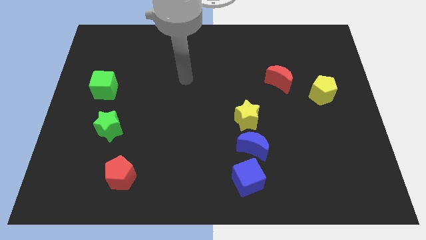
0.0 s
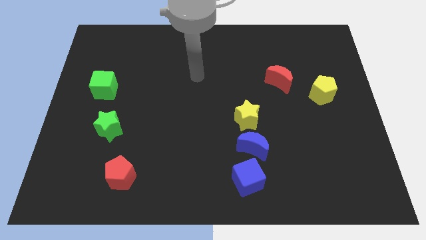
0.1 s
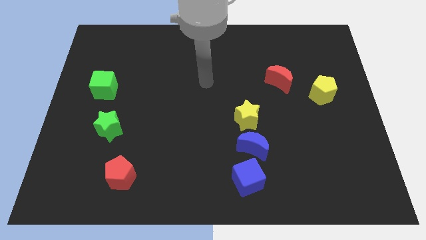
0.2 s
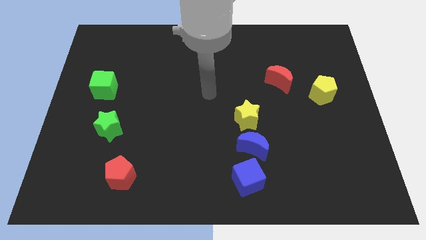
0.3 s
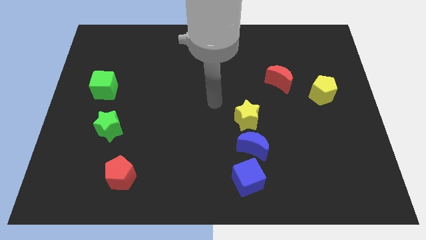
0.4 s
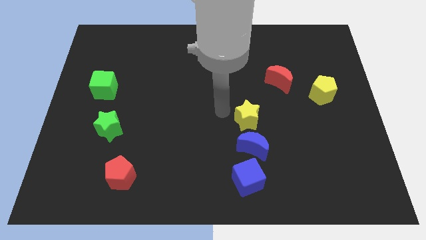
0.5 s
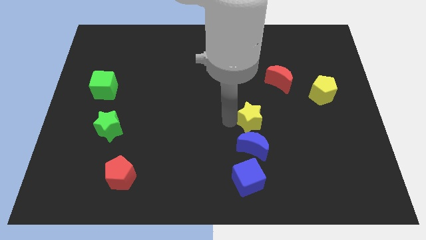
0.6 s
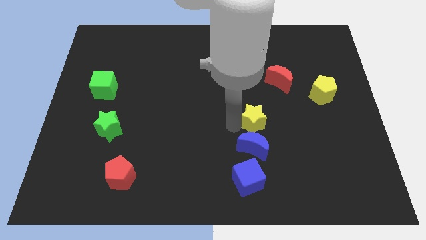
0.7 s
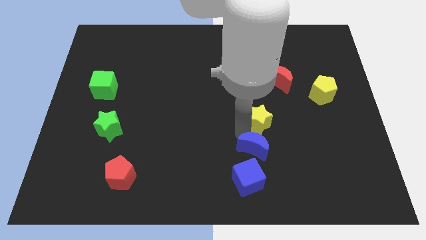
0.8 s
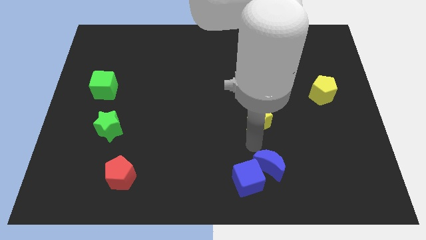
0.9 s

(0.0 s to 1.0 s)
pull the yellow star apart from the blue moon

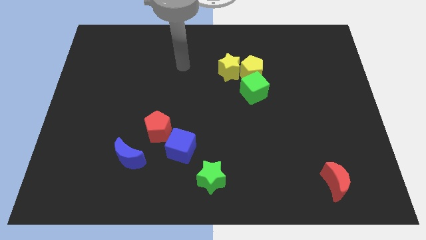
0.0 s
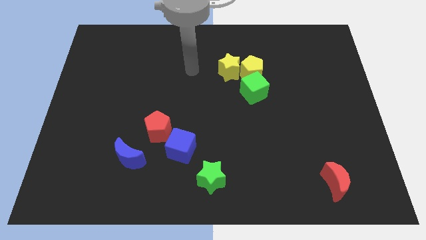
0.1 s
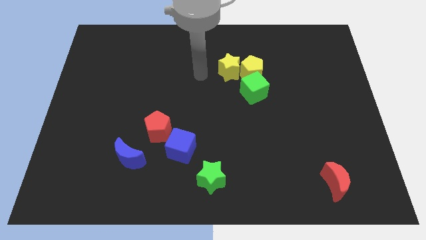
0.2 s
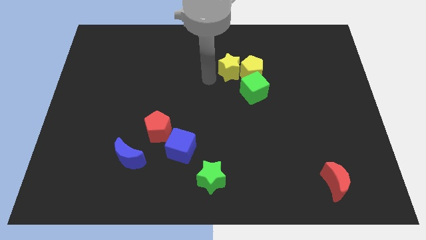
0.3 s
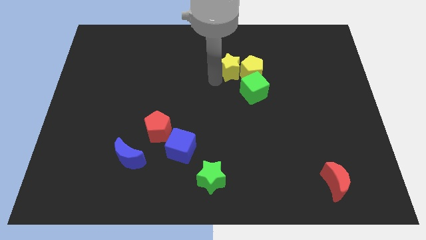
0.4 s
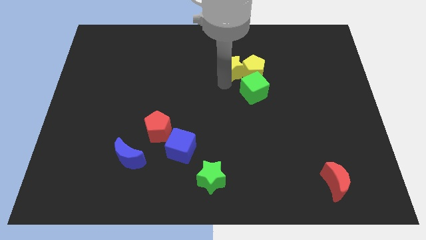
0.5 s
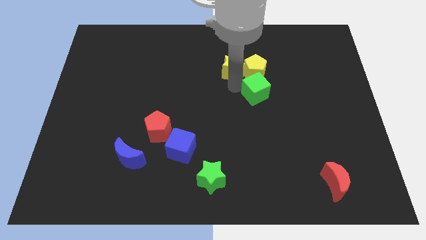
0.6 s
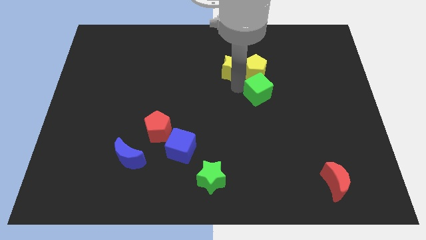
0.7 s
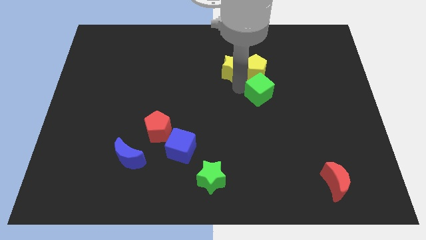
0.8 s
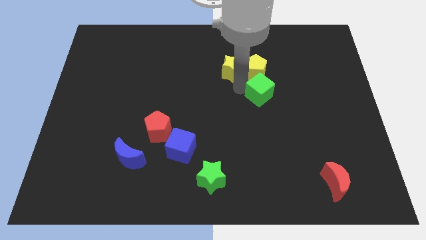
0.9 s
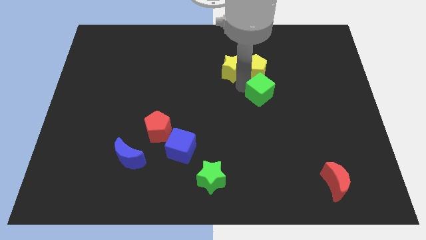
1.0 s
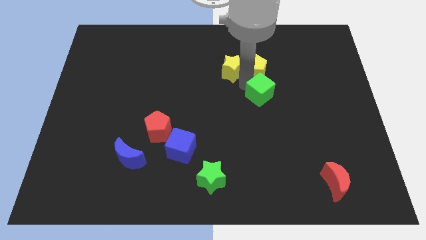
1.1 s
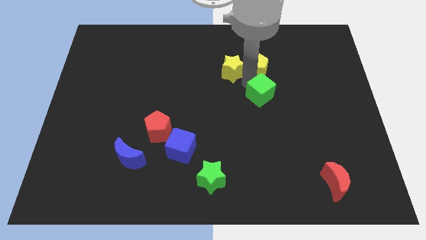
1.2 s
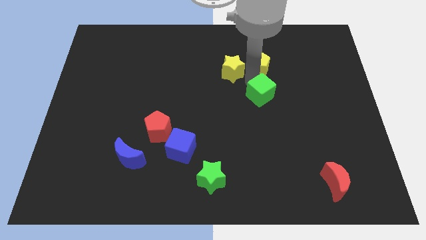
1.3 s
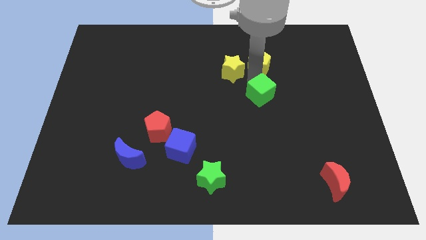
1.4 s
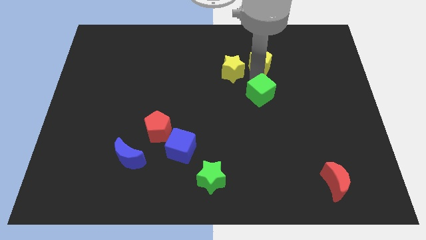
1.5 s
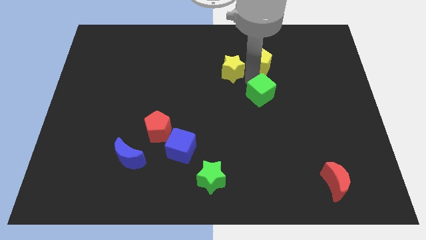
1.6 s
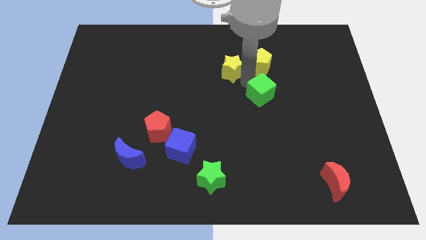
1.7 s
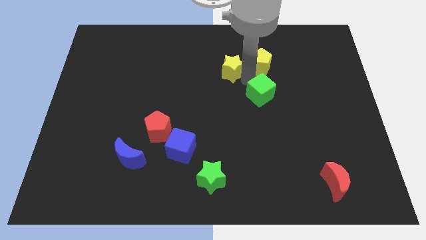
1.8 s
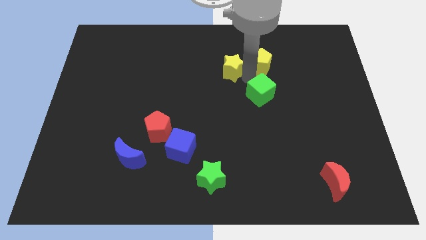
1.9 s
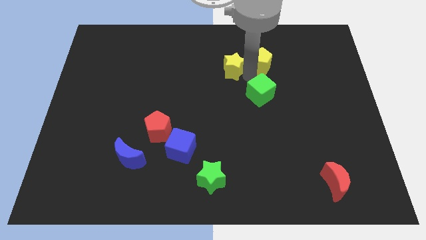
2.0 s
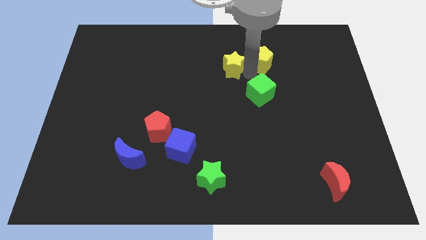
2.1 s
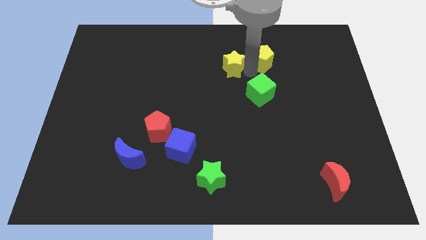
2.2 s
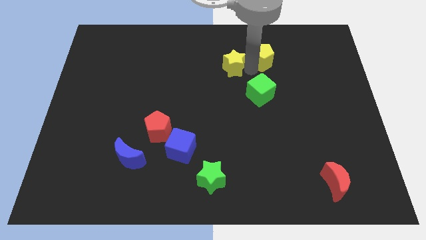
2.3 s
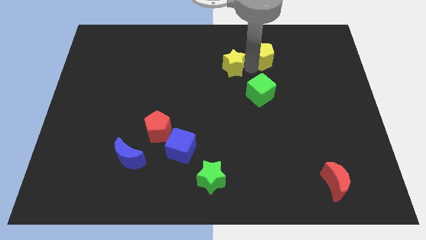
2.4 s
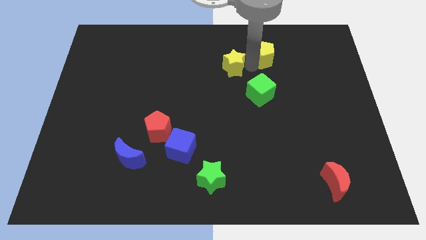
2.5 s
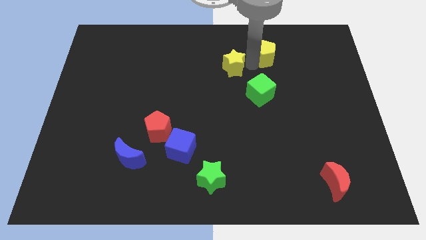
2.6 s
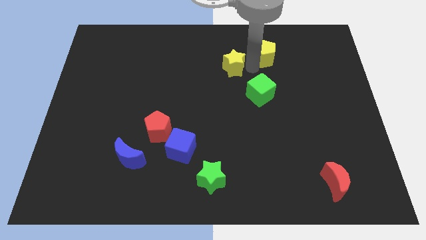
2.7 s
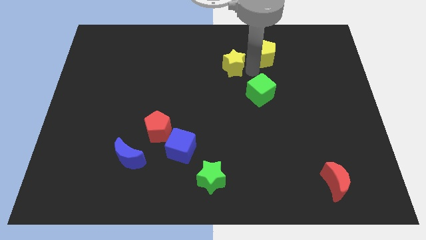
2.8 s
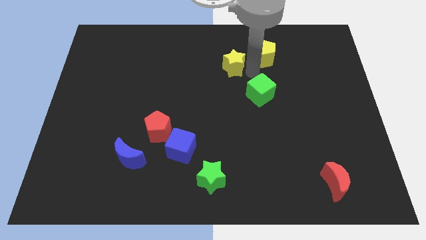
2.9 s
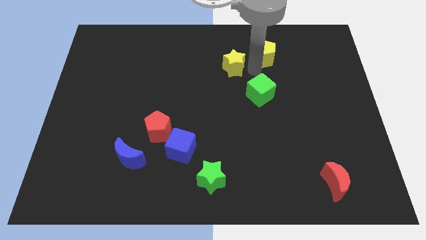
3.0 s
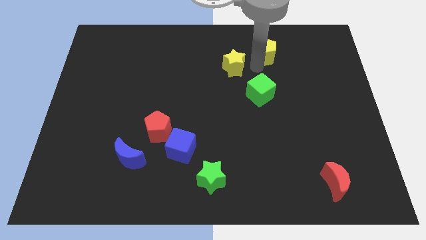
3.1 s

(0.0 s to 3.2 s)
move the yellow pentagon away from the yellow star and green cube

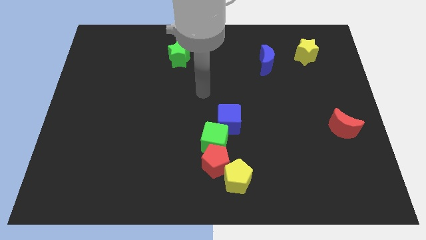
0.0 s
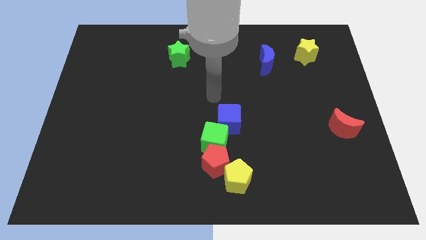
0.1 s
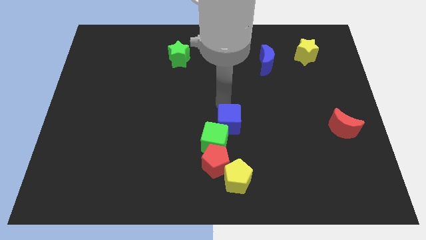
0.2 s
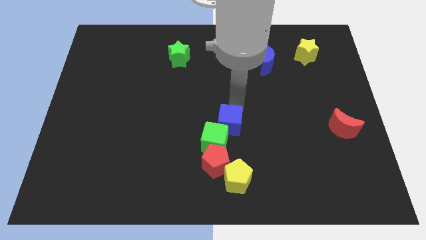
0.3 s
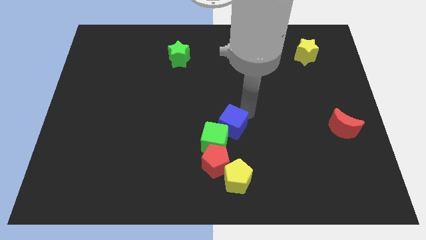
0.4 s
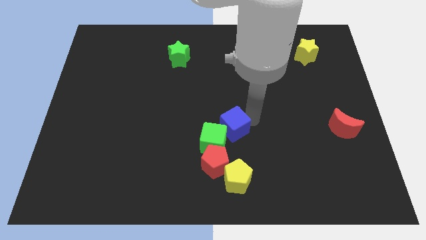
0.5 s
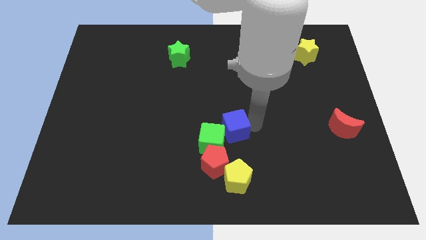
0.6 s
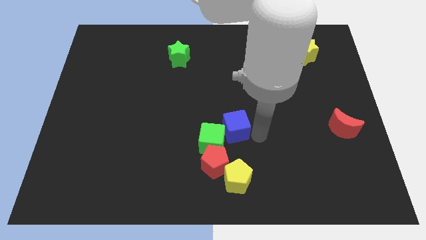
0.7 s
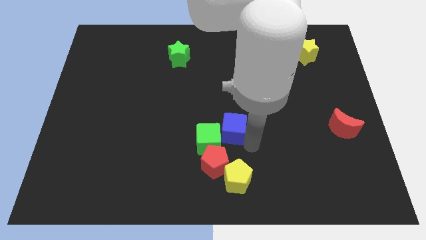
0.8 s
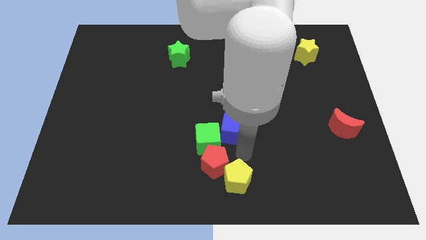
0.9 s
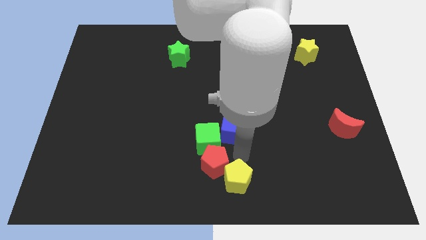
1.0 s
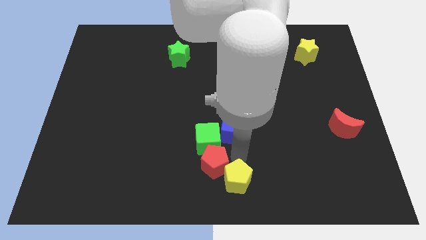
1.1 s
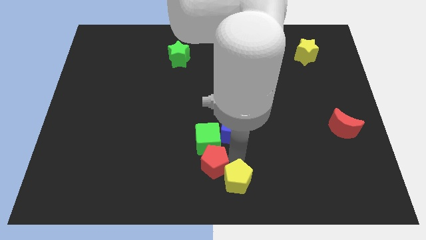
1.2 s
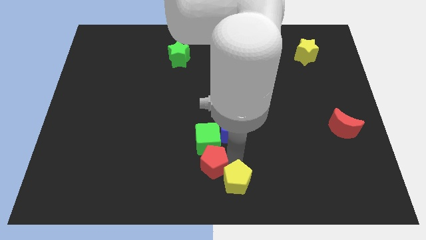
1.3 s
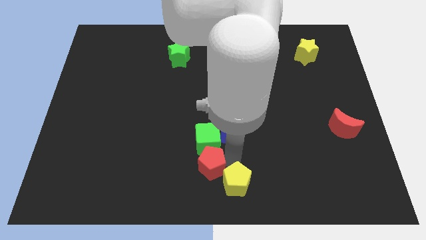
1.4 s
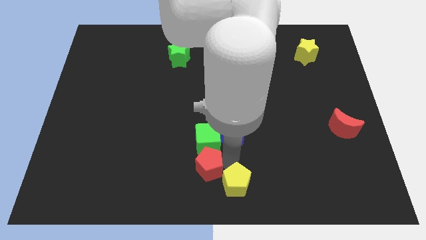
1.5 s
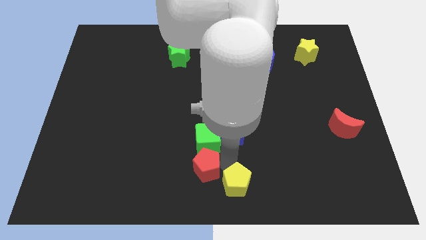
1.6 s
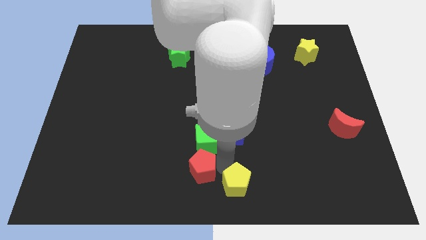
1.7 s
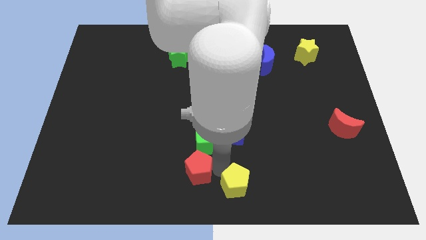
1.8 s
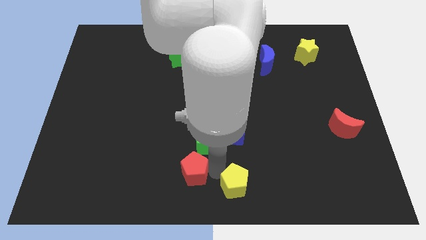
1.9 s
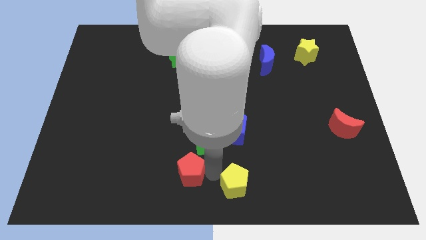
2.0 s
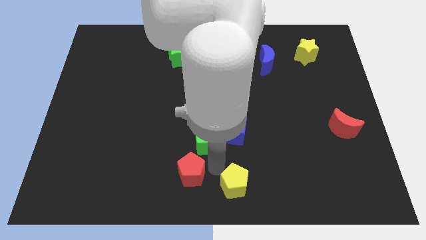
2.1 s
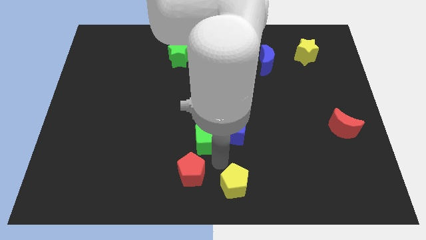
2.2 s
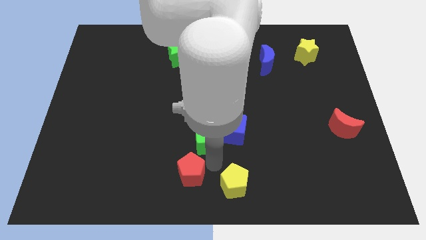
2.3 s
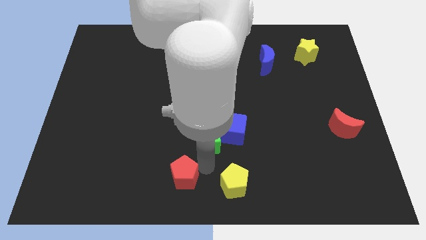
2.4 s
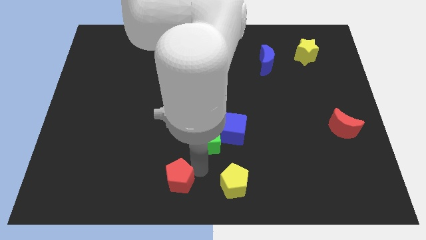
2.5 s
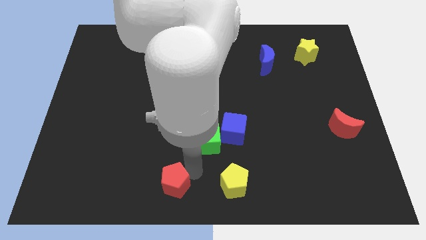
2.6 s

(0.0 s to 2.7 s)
move the red pentagon away from the green cube and yellow pentagon

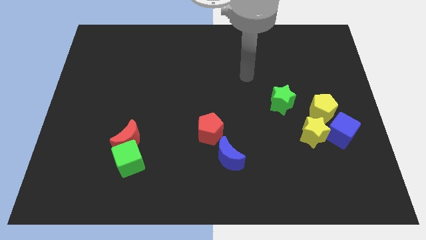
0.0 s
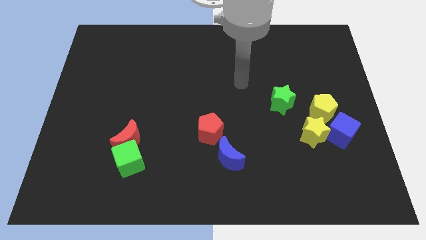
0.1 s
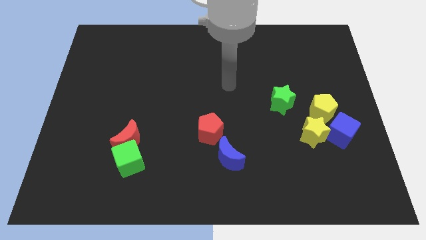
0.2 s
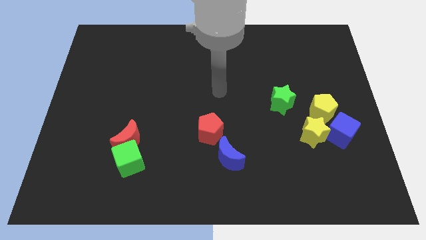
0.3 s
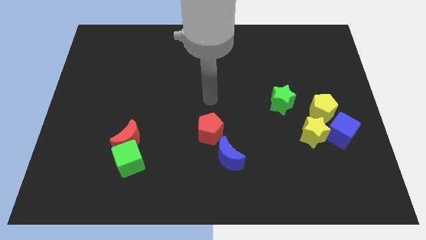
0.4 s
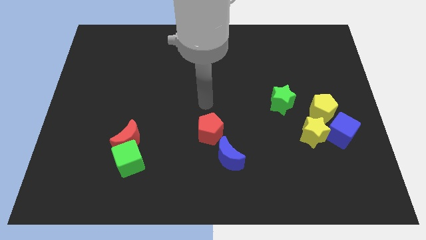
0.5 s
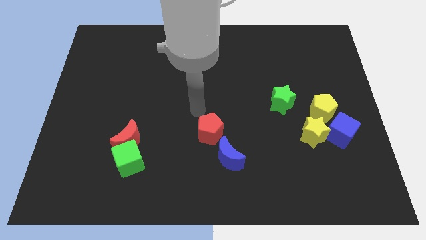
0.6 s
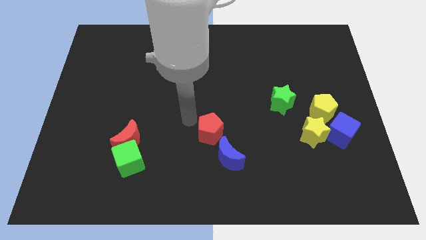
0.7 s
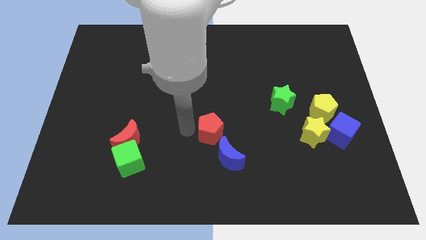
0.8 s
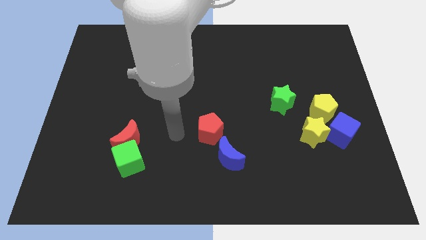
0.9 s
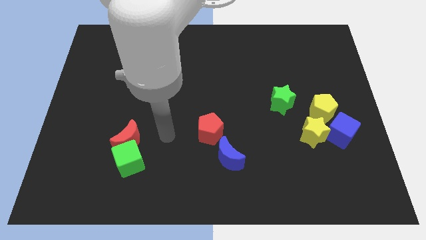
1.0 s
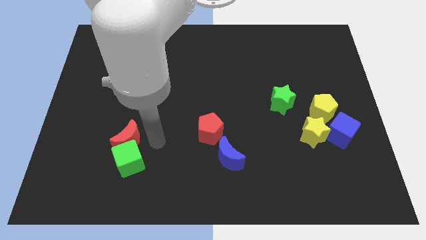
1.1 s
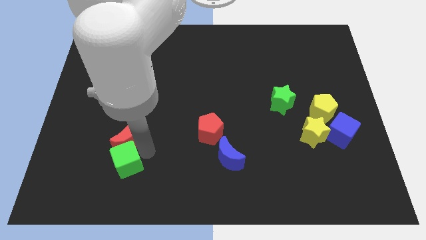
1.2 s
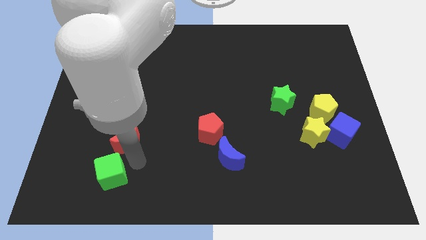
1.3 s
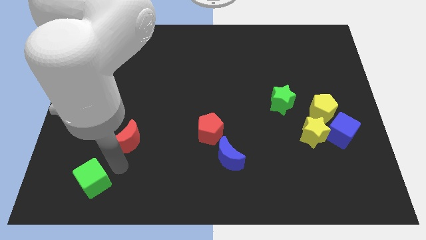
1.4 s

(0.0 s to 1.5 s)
move the red moon away from the green cube

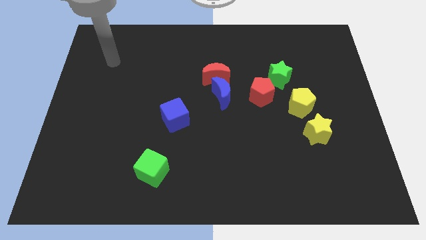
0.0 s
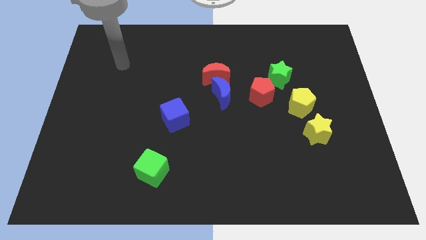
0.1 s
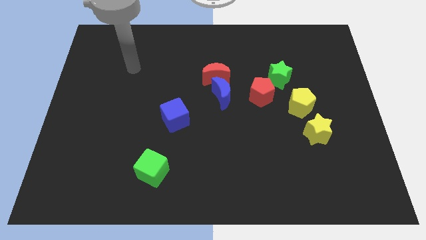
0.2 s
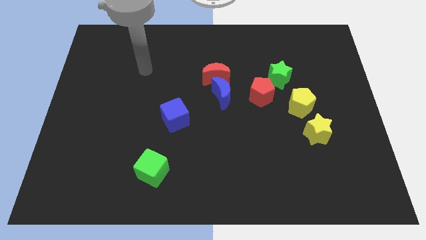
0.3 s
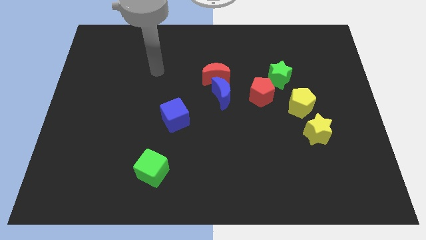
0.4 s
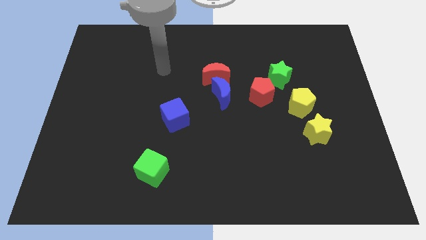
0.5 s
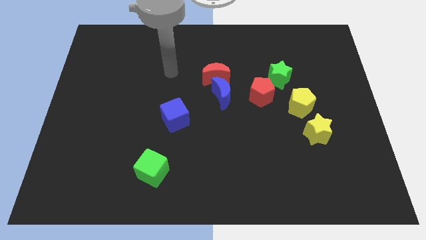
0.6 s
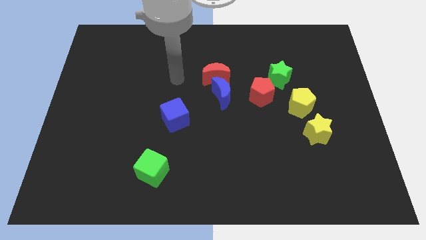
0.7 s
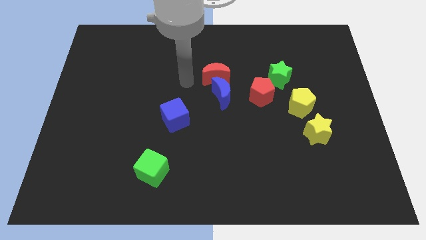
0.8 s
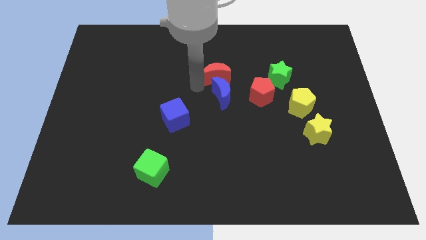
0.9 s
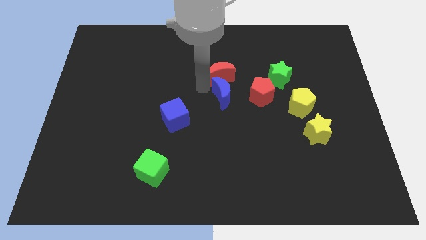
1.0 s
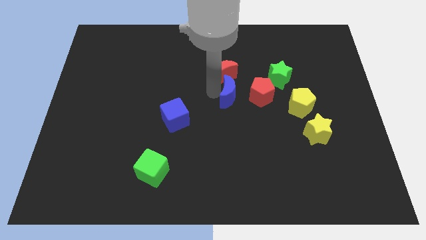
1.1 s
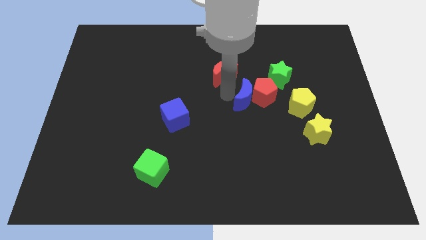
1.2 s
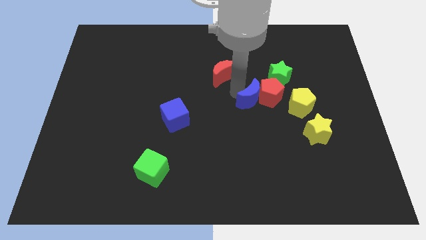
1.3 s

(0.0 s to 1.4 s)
separate the red moon from the blue moon
